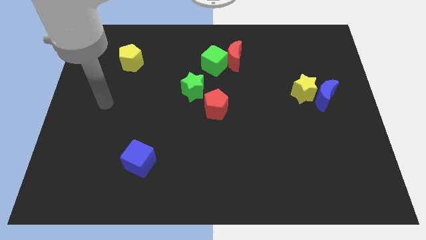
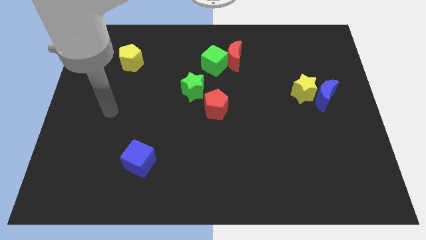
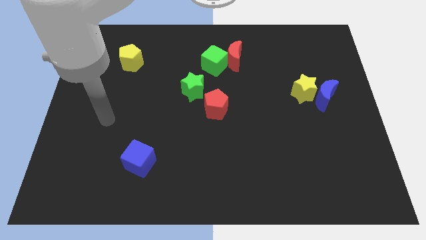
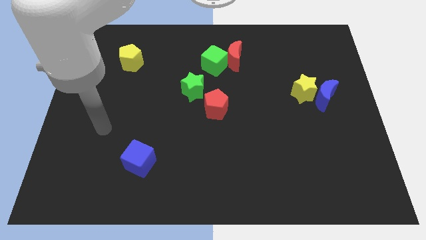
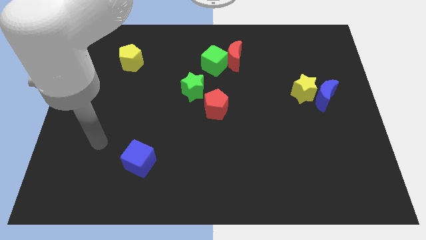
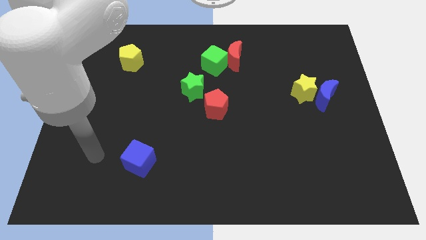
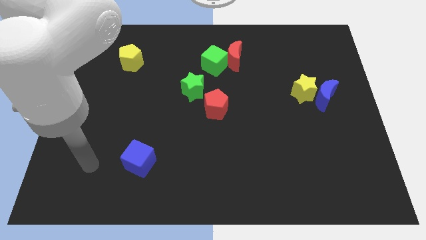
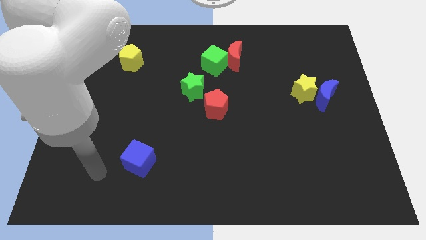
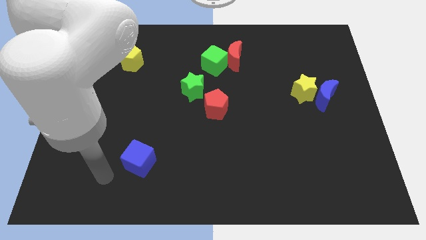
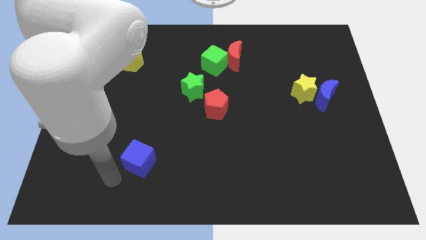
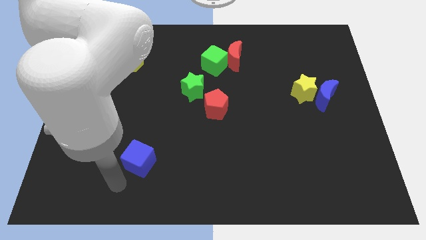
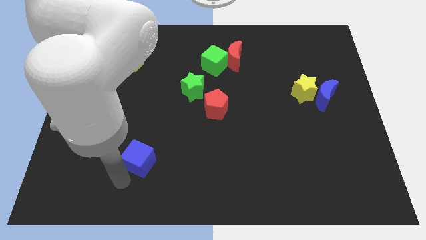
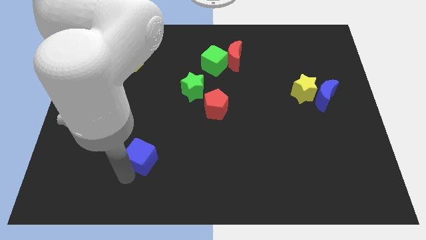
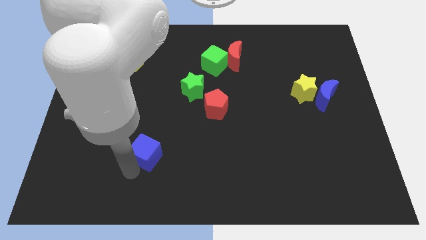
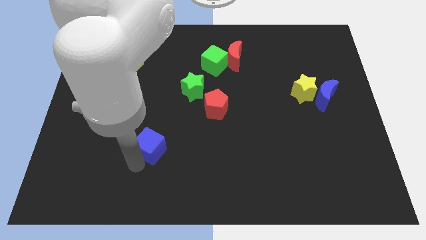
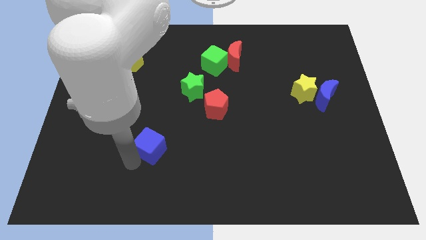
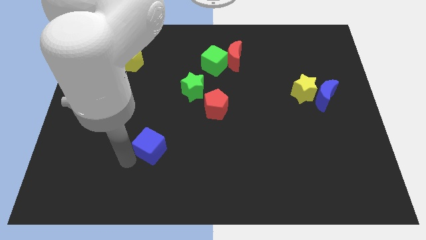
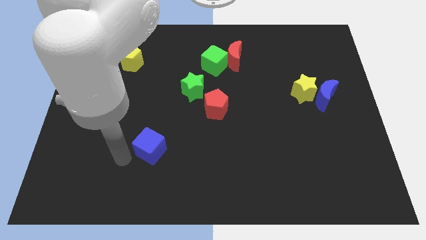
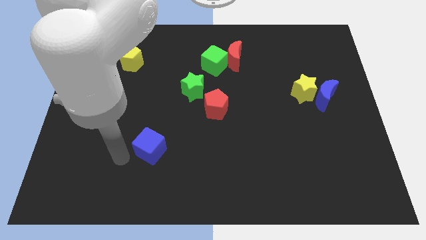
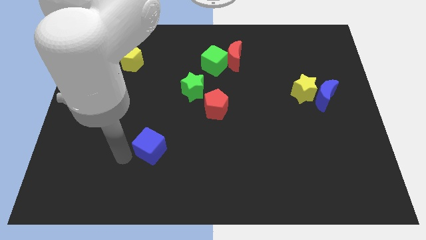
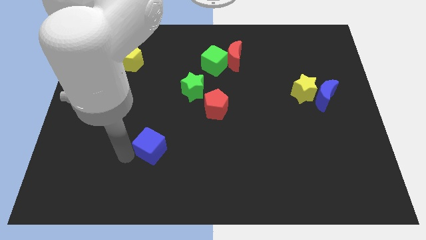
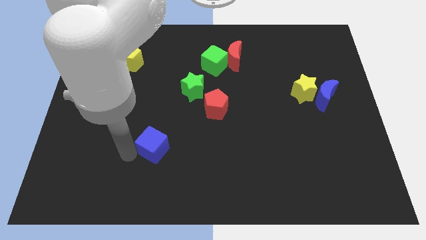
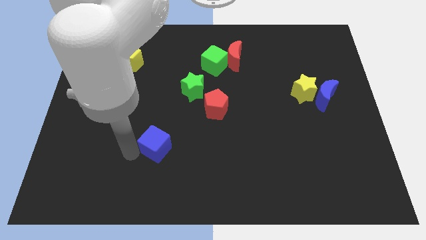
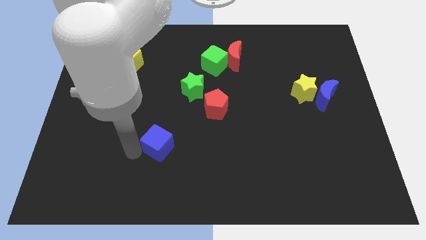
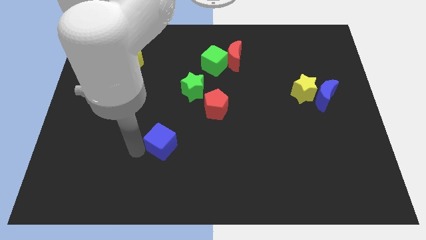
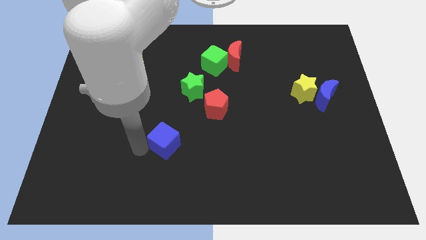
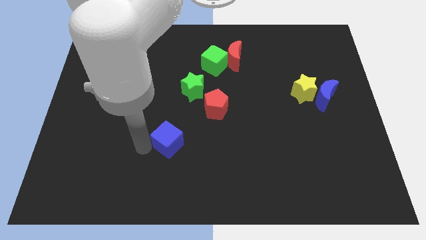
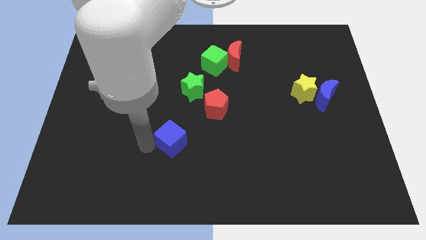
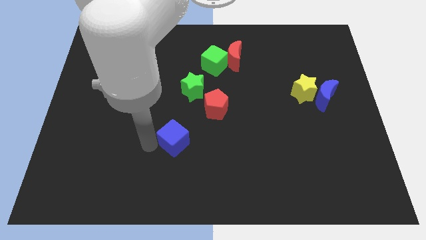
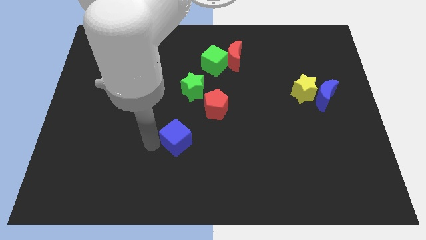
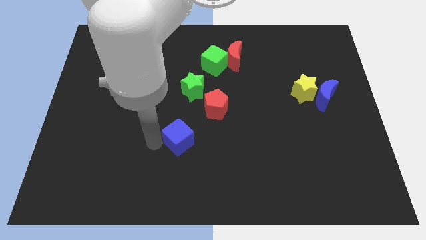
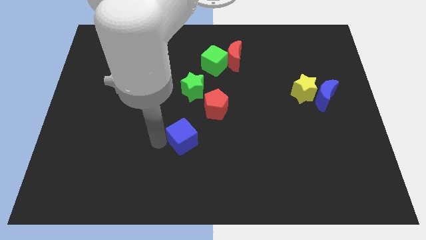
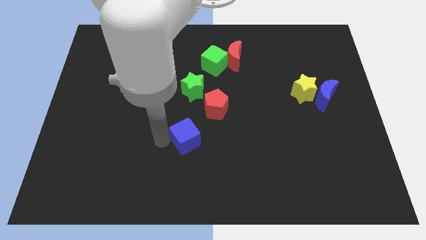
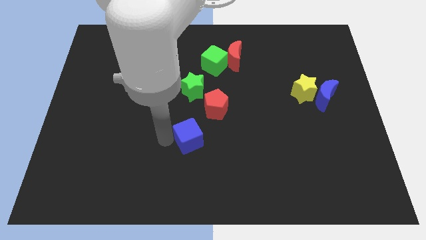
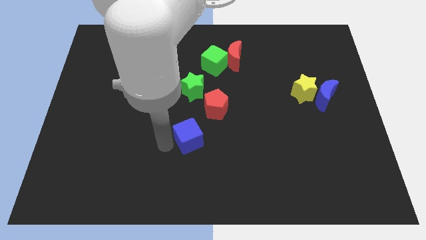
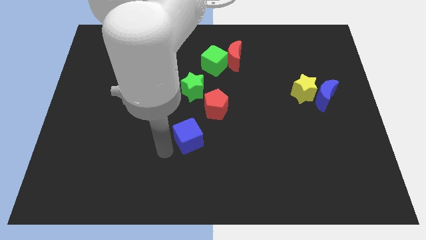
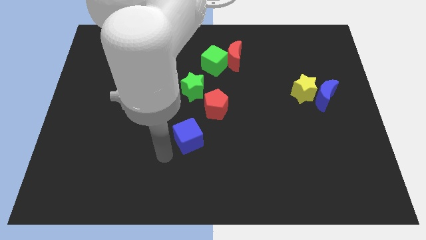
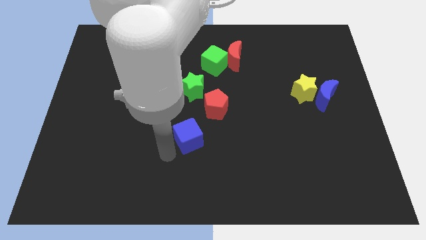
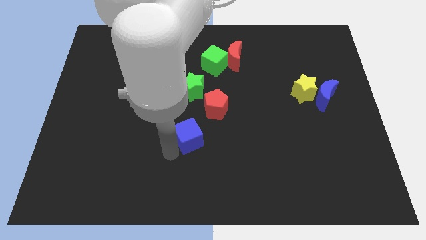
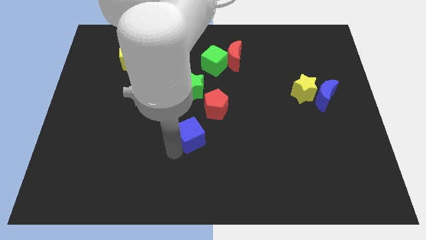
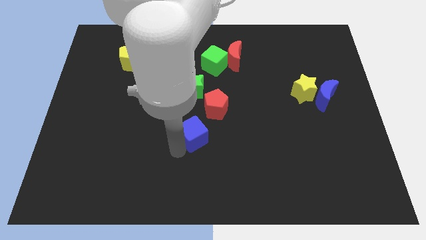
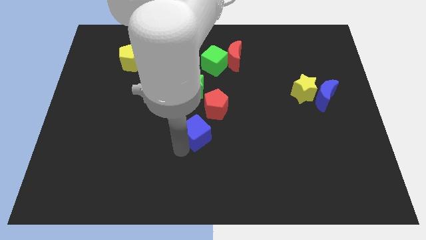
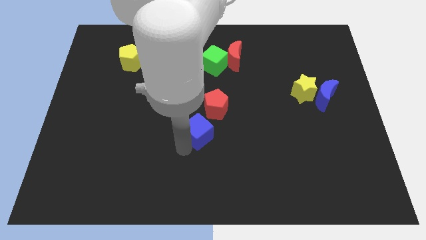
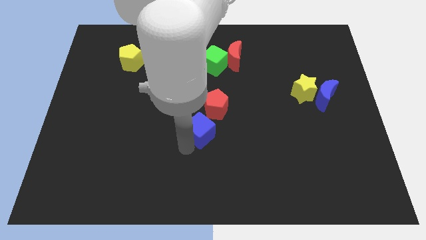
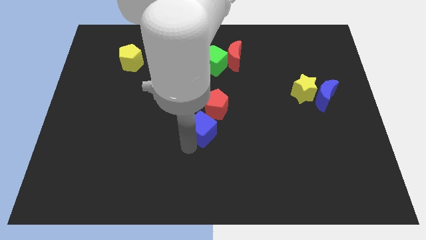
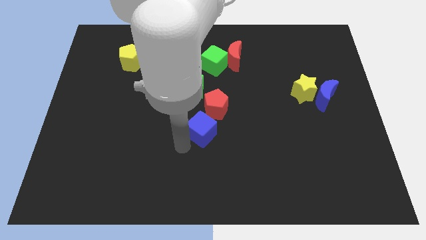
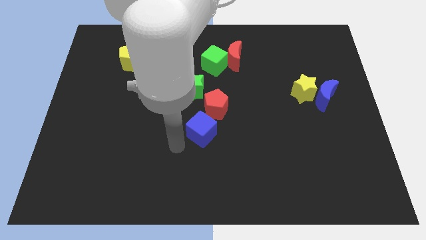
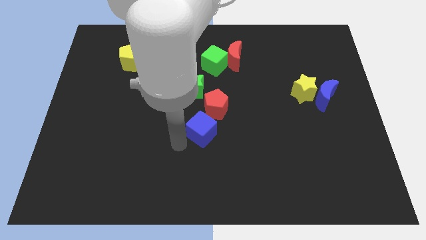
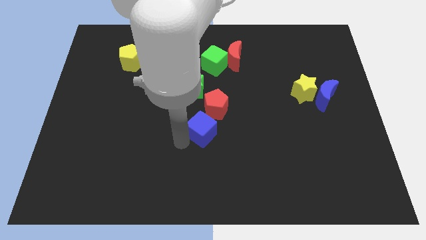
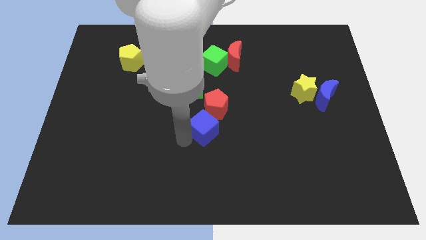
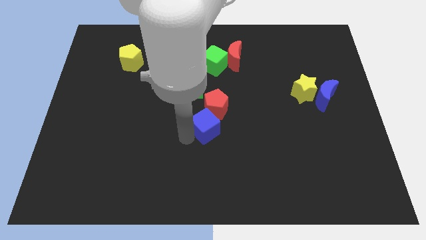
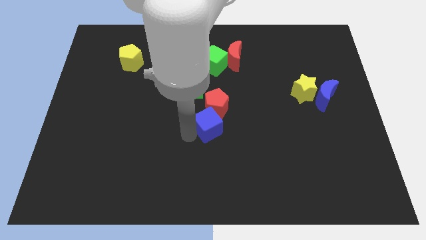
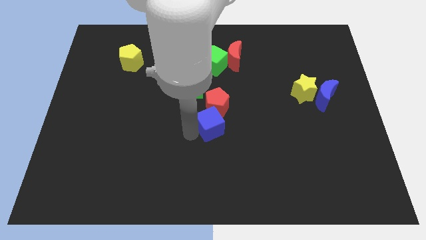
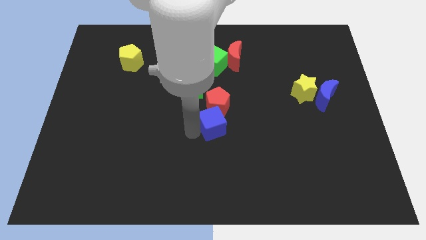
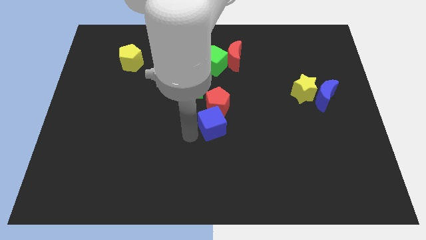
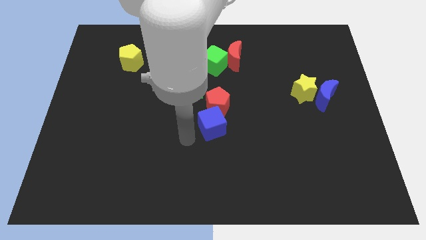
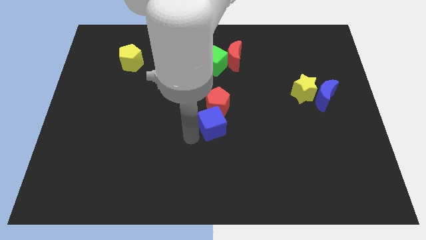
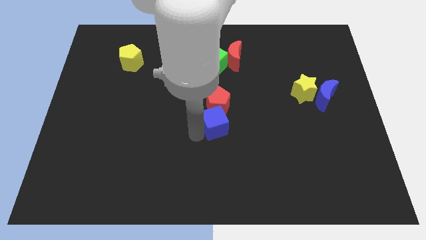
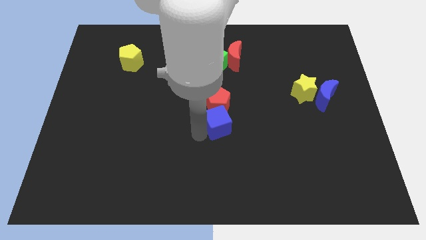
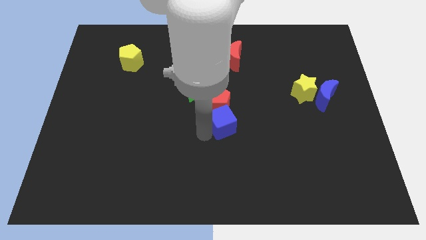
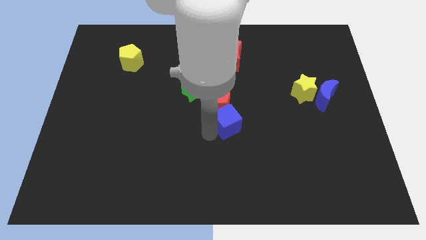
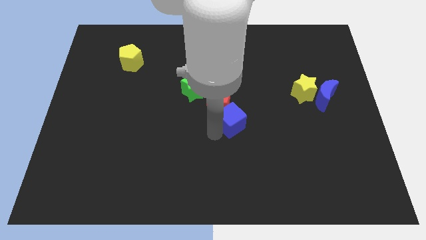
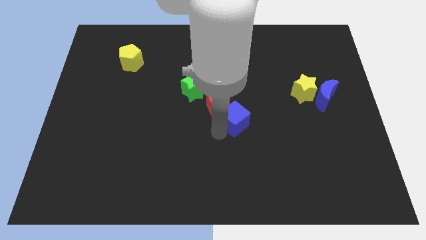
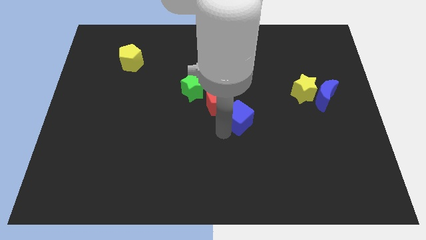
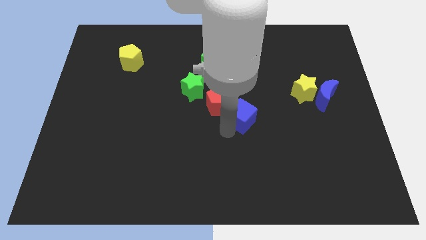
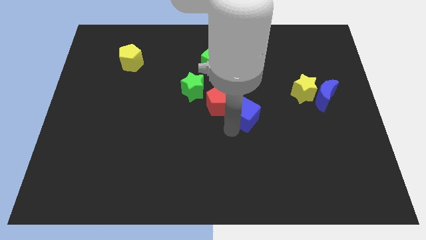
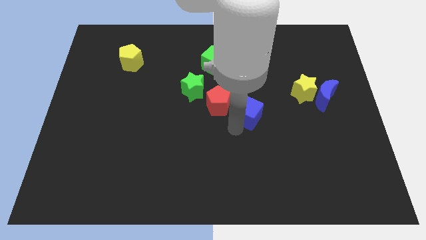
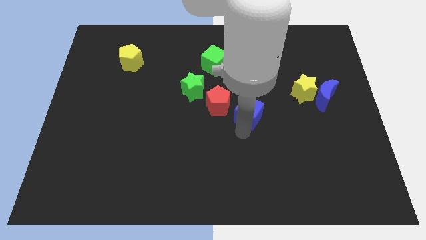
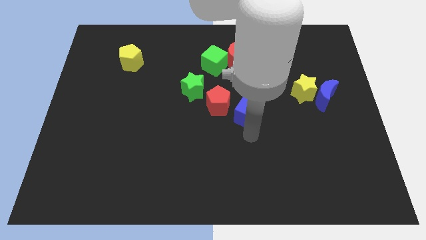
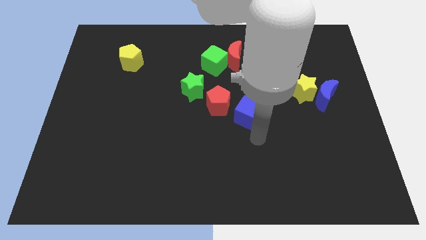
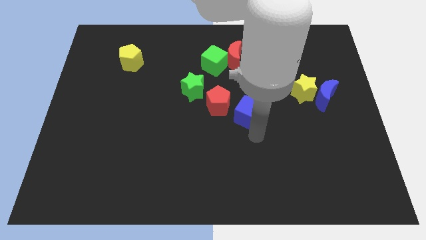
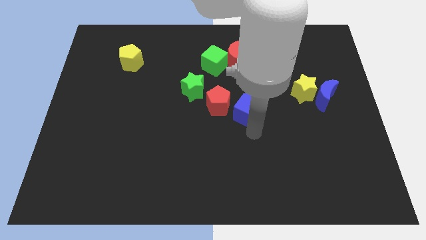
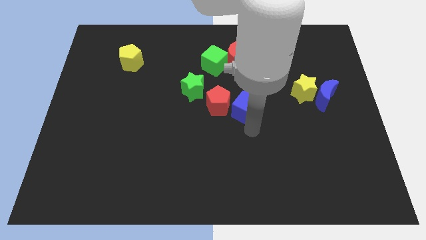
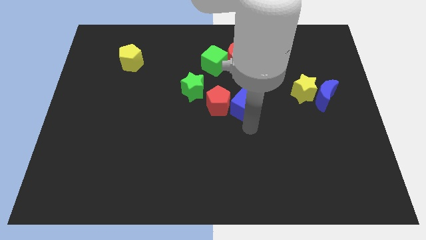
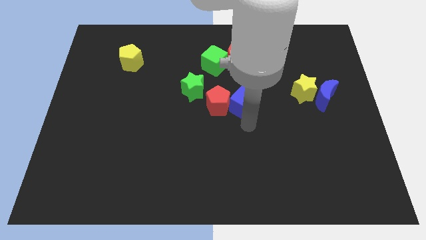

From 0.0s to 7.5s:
push the blue cube to the right side of the green star

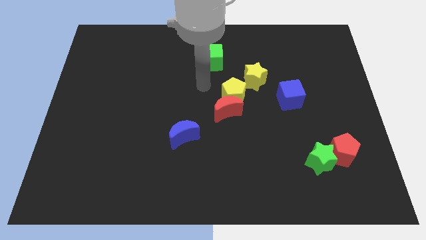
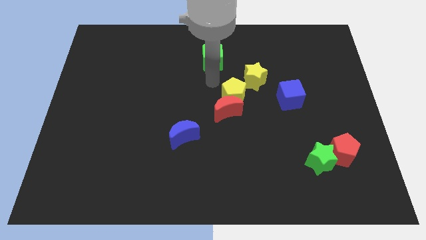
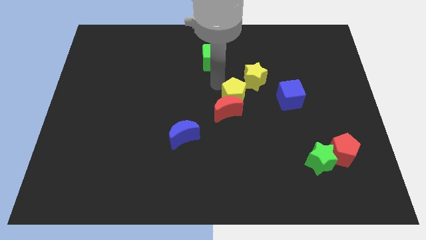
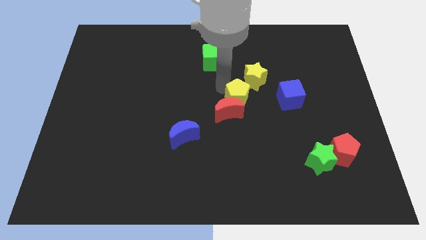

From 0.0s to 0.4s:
put the yellow pentagon to the bottom of the yellow star
